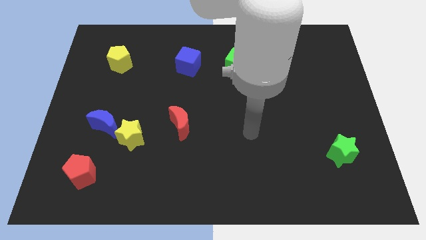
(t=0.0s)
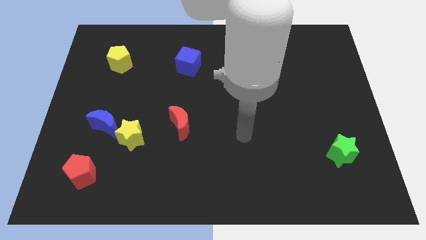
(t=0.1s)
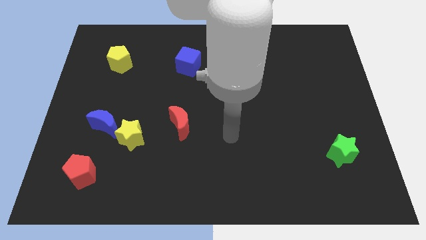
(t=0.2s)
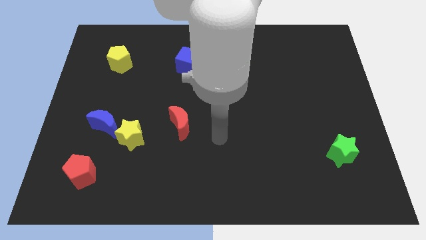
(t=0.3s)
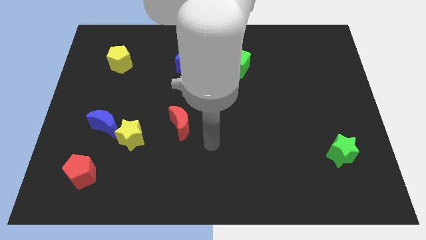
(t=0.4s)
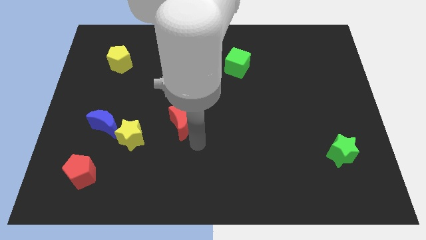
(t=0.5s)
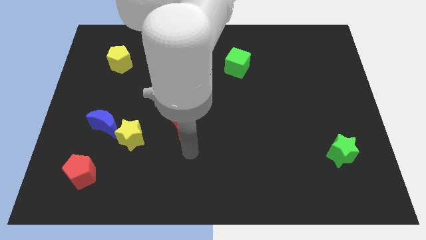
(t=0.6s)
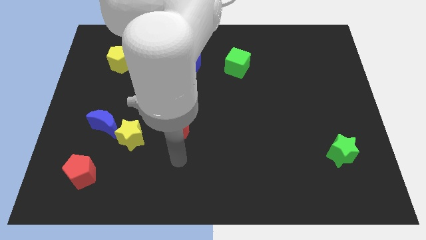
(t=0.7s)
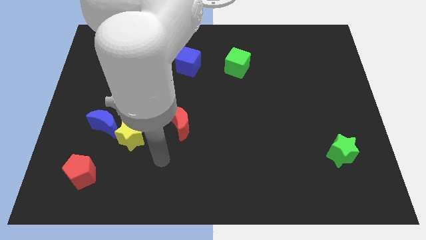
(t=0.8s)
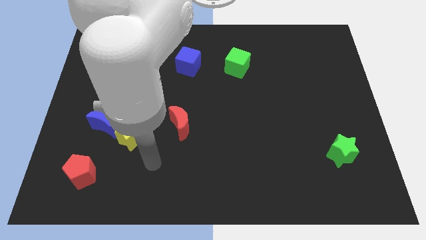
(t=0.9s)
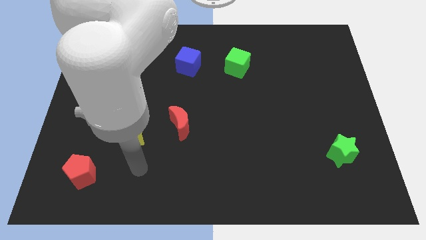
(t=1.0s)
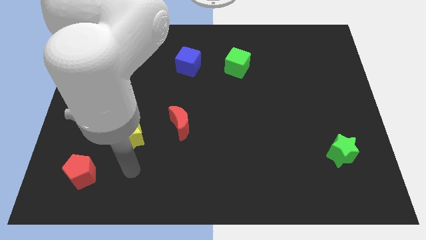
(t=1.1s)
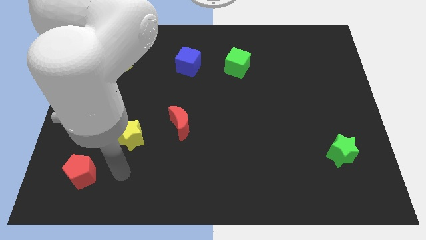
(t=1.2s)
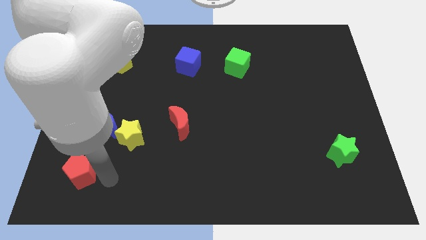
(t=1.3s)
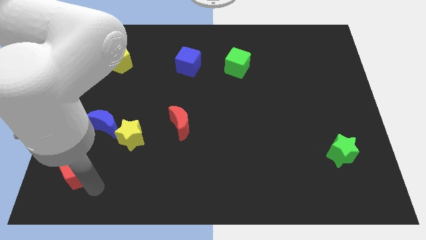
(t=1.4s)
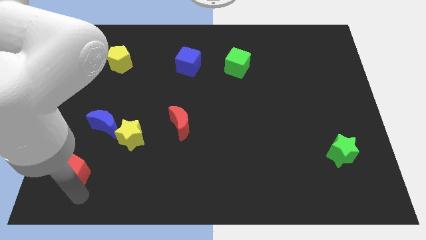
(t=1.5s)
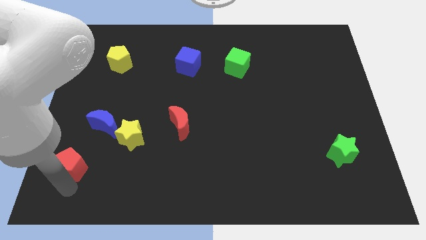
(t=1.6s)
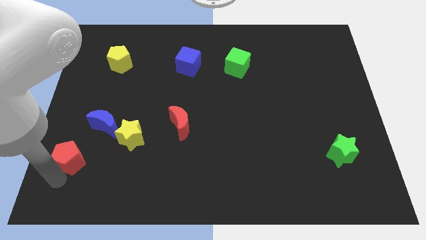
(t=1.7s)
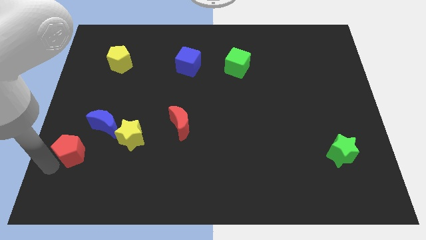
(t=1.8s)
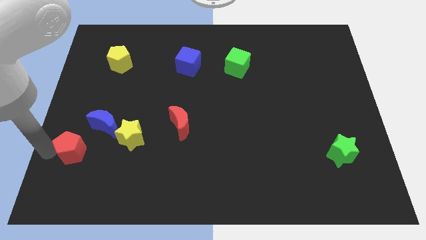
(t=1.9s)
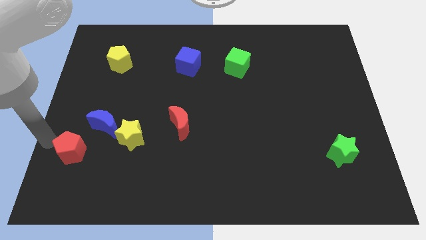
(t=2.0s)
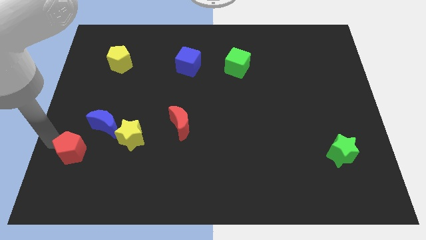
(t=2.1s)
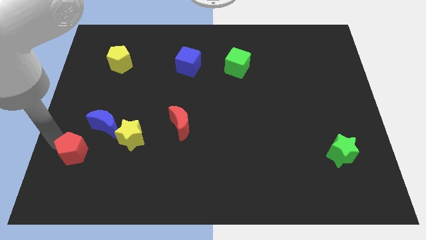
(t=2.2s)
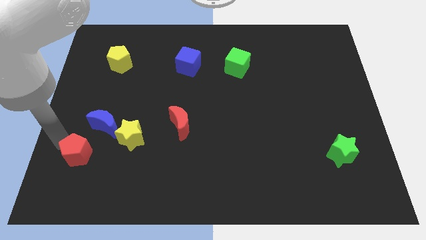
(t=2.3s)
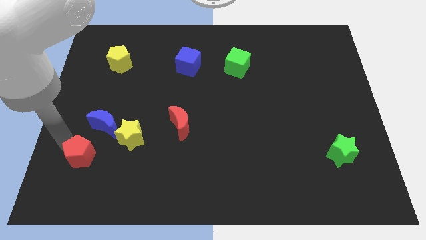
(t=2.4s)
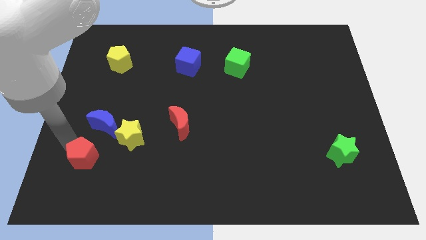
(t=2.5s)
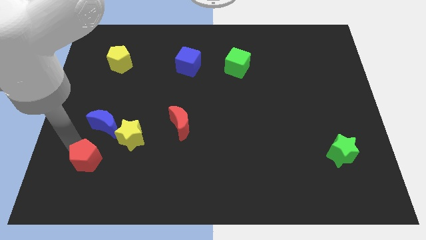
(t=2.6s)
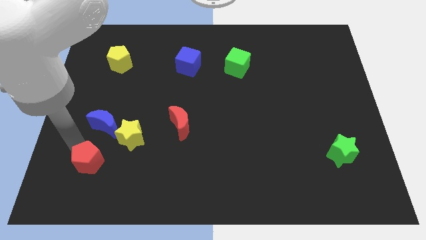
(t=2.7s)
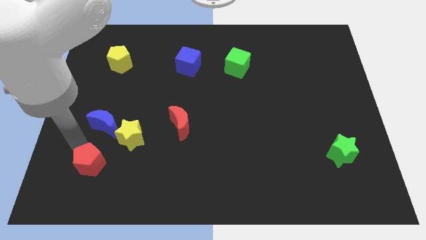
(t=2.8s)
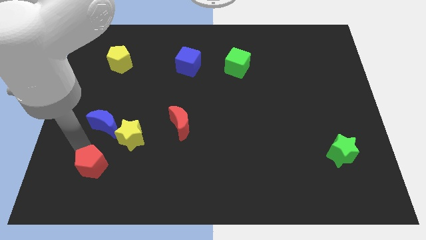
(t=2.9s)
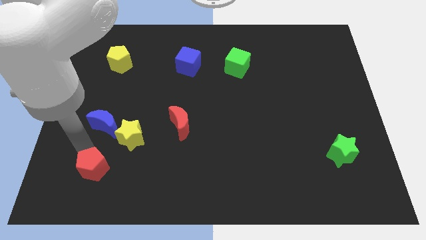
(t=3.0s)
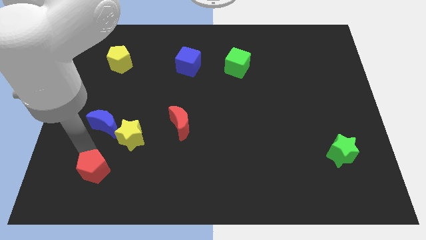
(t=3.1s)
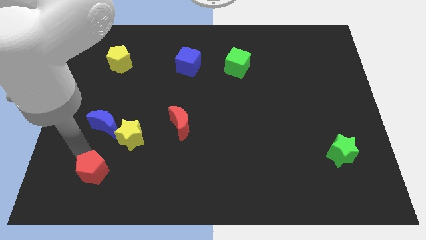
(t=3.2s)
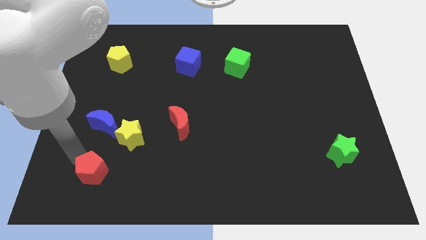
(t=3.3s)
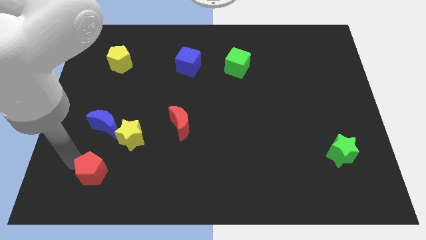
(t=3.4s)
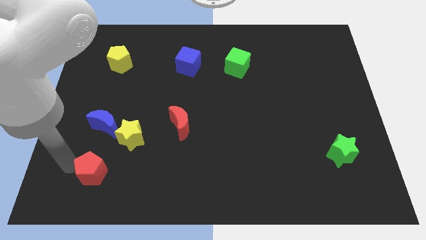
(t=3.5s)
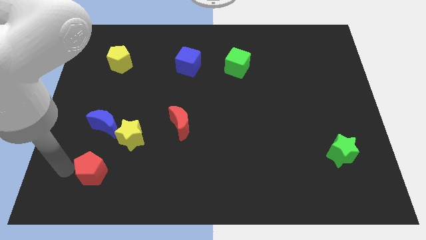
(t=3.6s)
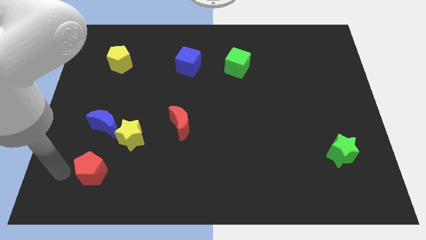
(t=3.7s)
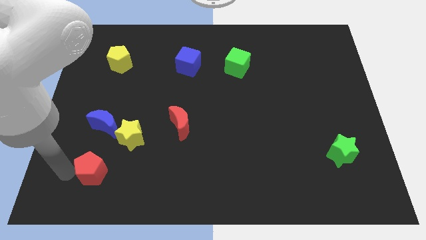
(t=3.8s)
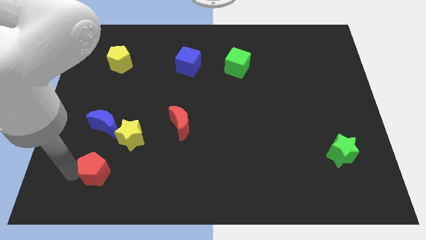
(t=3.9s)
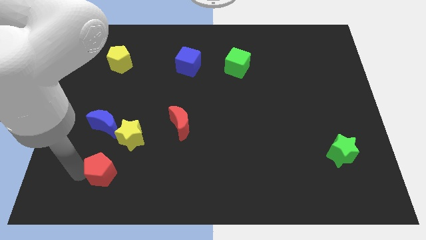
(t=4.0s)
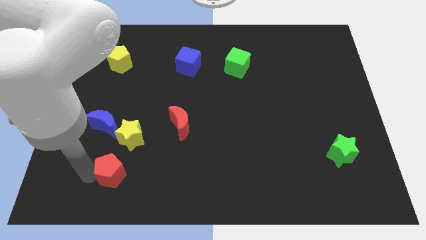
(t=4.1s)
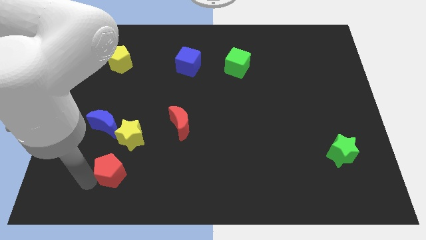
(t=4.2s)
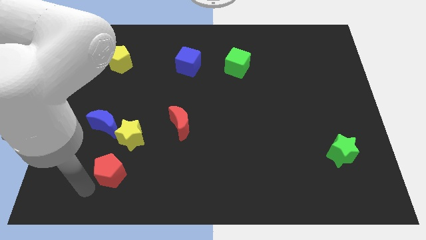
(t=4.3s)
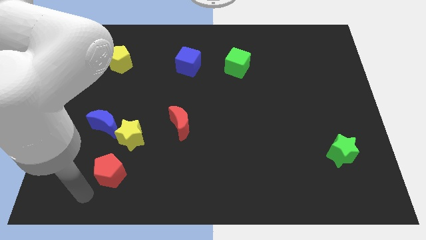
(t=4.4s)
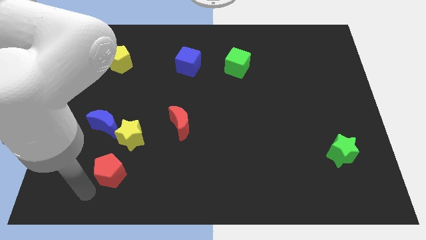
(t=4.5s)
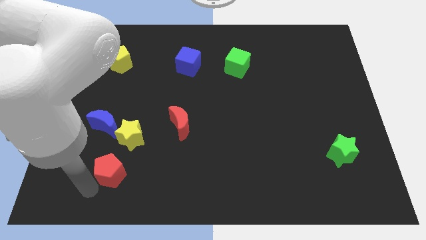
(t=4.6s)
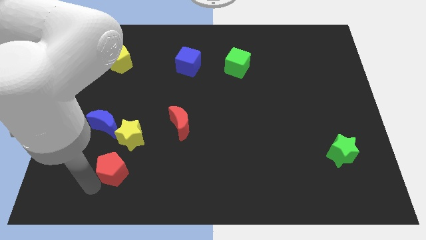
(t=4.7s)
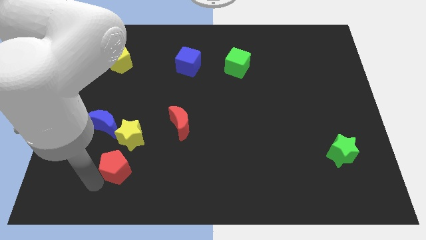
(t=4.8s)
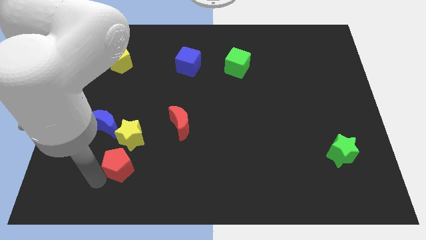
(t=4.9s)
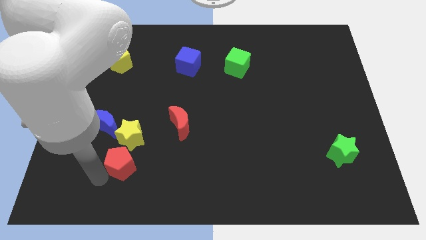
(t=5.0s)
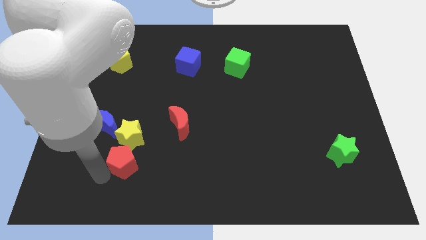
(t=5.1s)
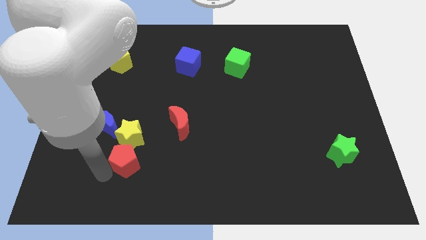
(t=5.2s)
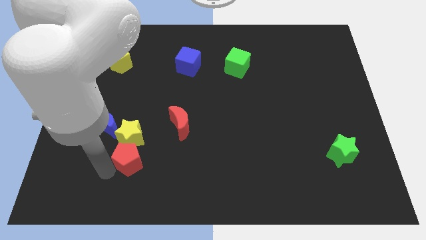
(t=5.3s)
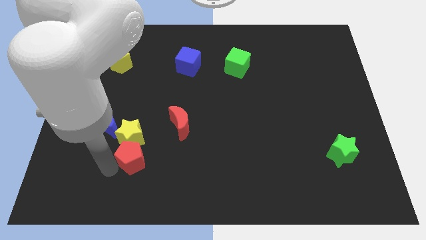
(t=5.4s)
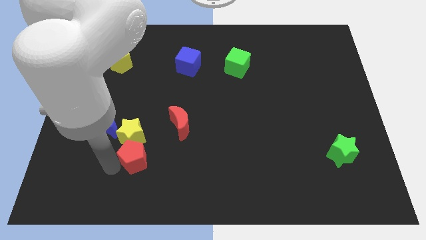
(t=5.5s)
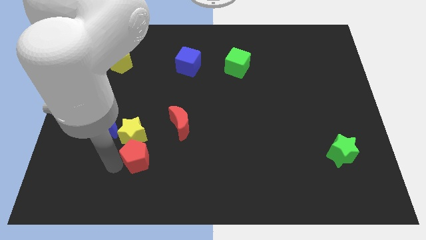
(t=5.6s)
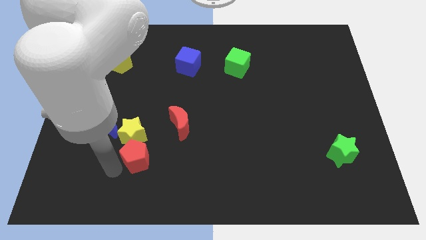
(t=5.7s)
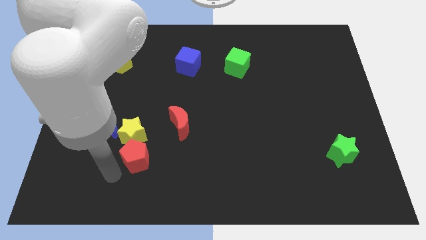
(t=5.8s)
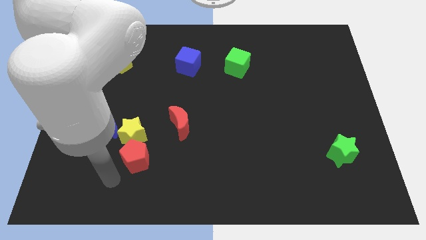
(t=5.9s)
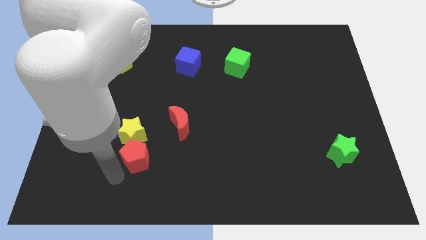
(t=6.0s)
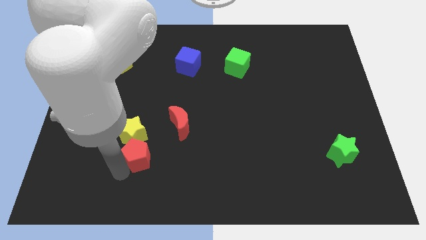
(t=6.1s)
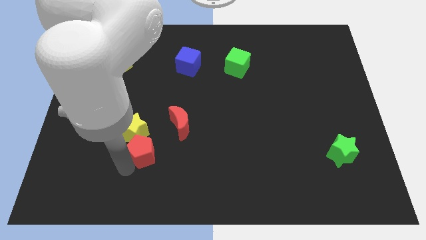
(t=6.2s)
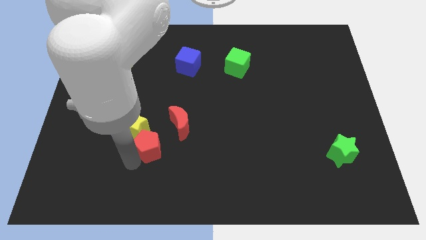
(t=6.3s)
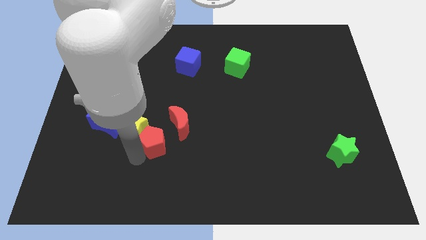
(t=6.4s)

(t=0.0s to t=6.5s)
slide the red pentagon just right of the yellow star

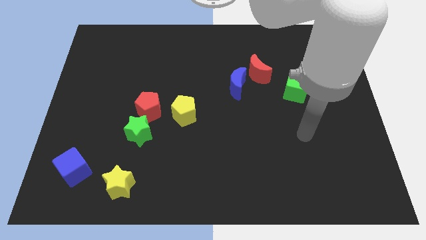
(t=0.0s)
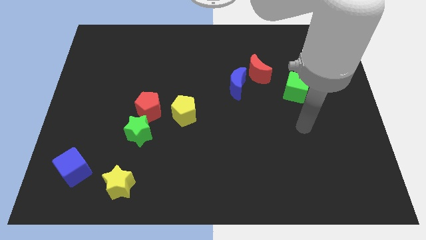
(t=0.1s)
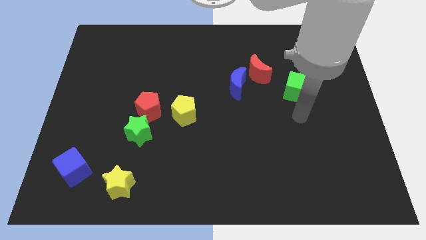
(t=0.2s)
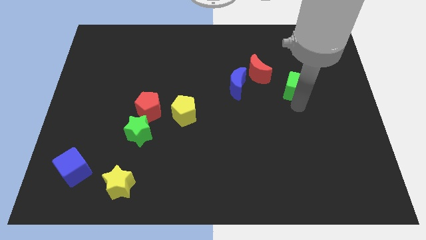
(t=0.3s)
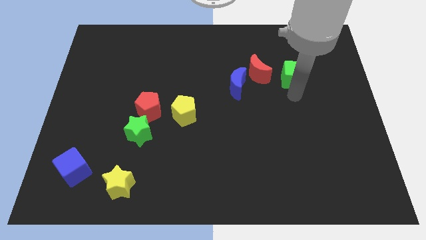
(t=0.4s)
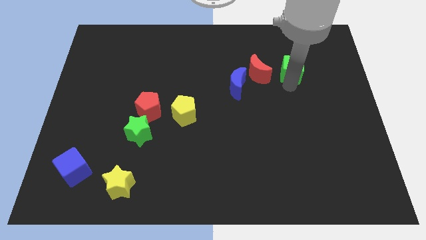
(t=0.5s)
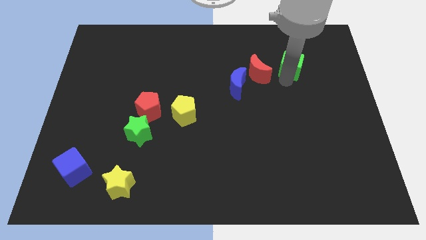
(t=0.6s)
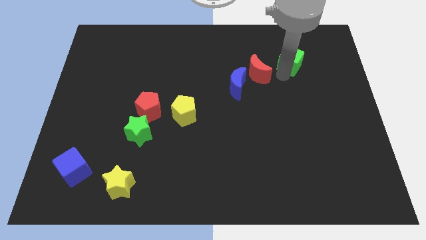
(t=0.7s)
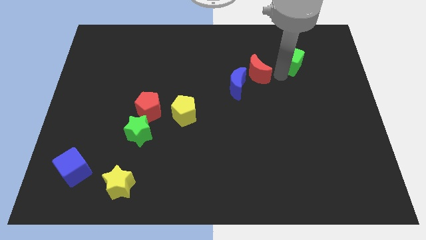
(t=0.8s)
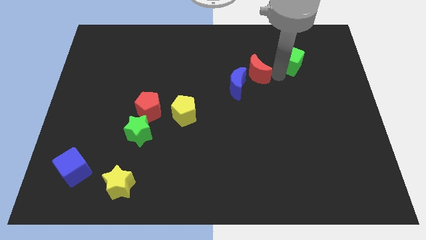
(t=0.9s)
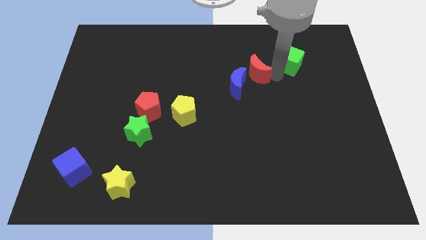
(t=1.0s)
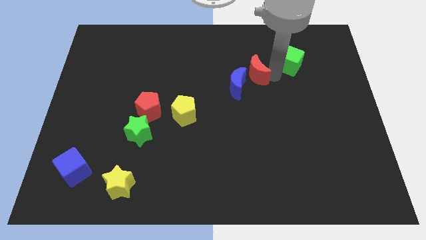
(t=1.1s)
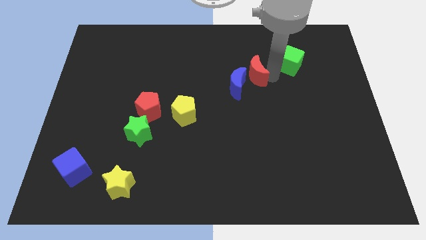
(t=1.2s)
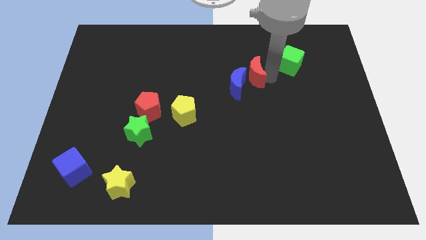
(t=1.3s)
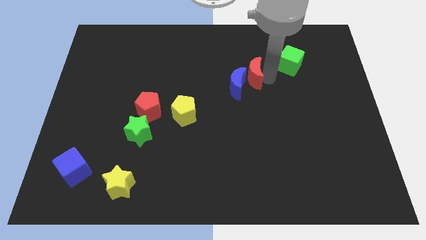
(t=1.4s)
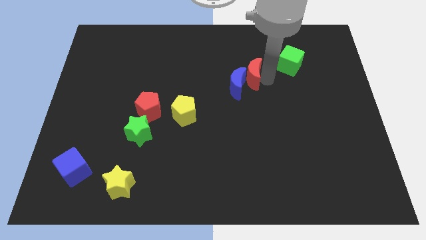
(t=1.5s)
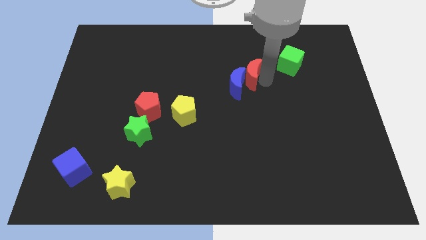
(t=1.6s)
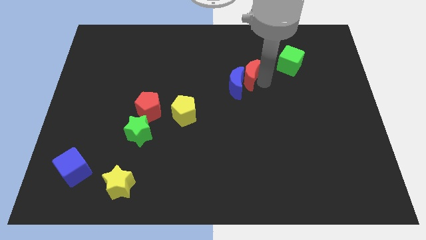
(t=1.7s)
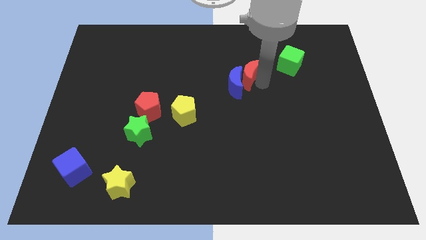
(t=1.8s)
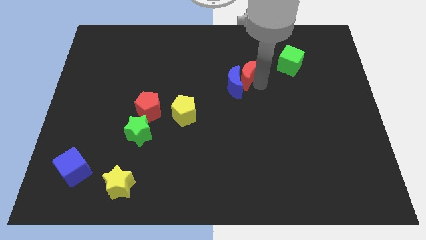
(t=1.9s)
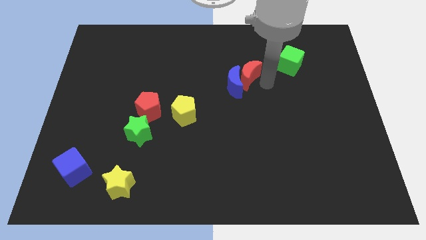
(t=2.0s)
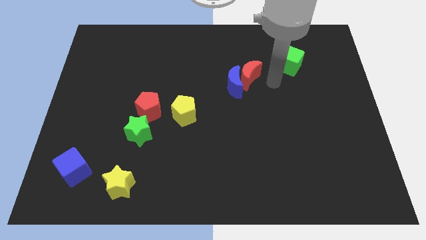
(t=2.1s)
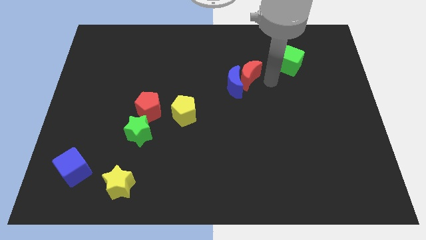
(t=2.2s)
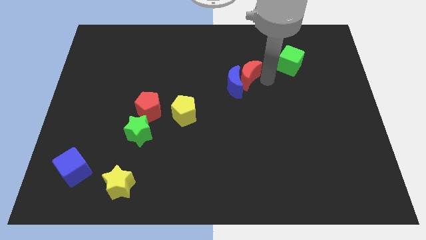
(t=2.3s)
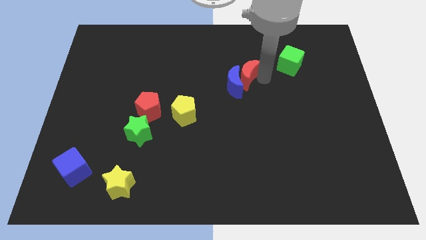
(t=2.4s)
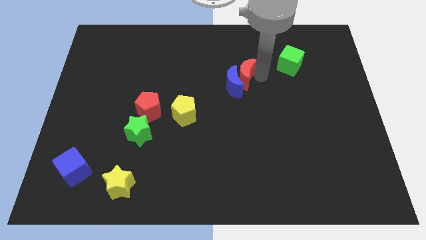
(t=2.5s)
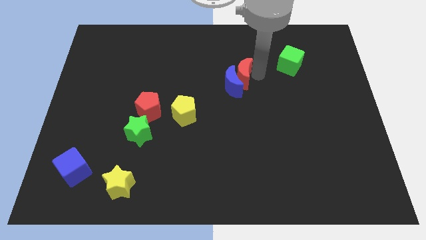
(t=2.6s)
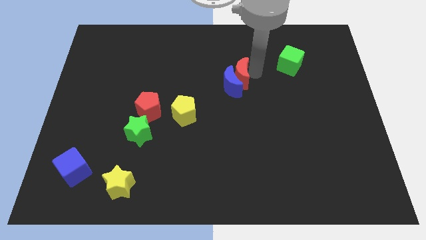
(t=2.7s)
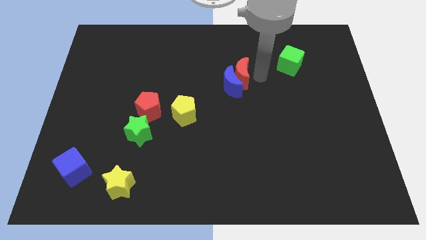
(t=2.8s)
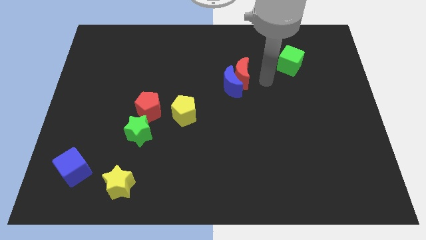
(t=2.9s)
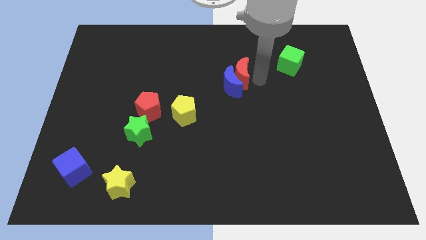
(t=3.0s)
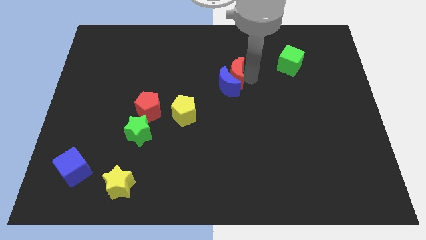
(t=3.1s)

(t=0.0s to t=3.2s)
put the red moon diagonally up and to the left of the blue moon
